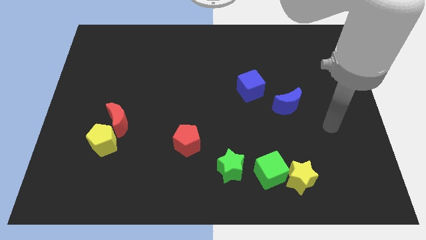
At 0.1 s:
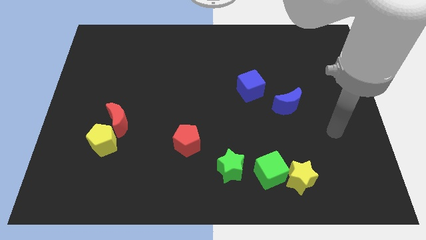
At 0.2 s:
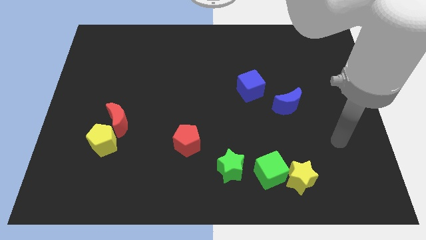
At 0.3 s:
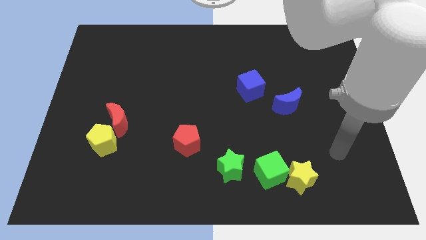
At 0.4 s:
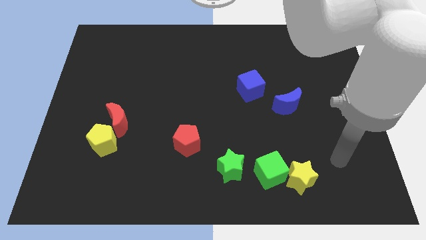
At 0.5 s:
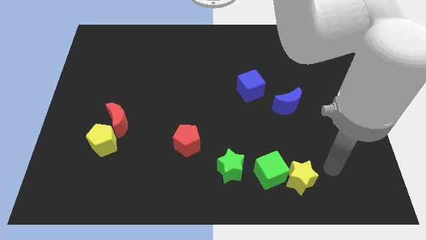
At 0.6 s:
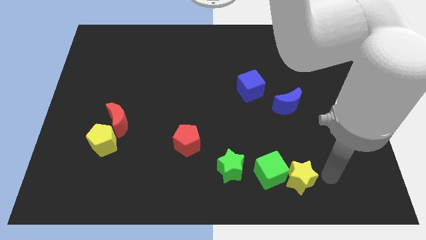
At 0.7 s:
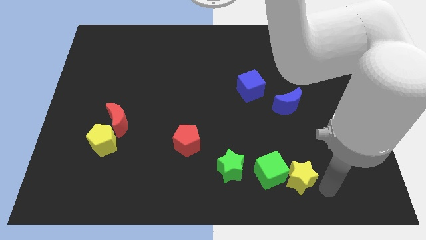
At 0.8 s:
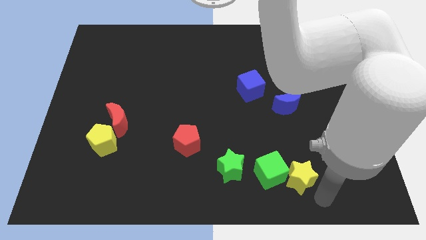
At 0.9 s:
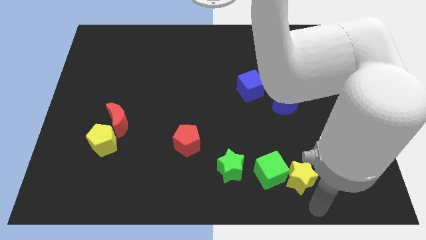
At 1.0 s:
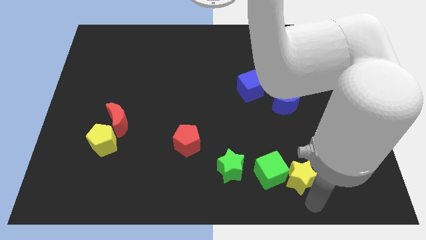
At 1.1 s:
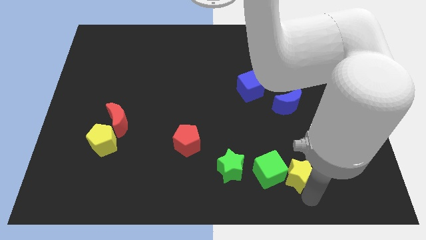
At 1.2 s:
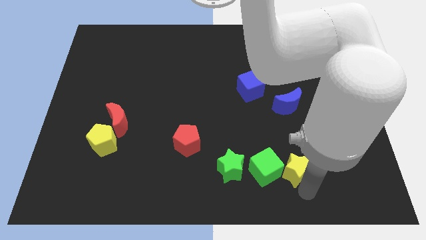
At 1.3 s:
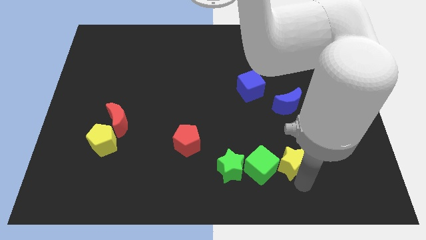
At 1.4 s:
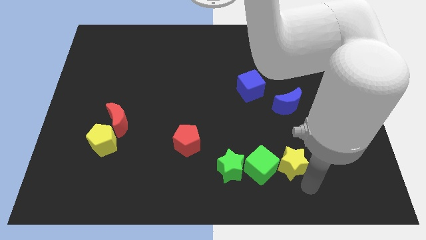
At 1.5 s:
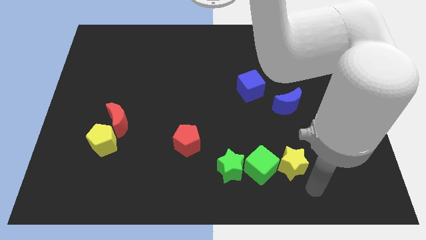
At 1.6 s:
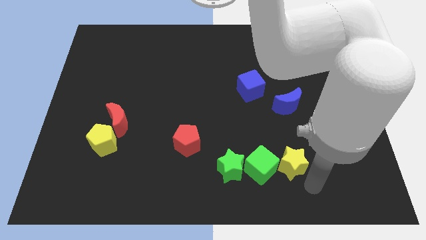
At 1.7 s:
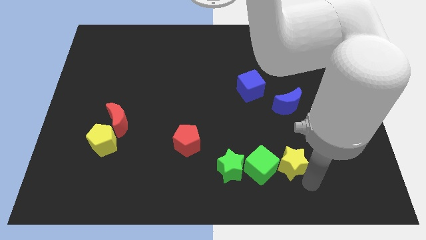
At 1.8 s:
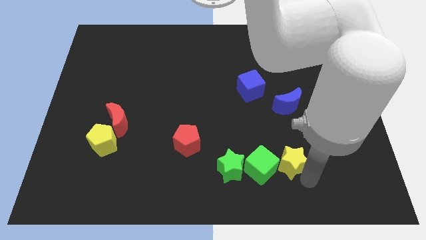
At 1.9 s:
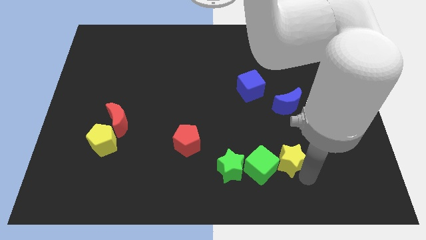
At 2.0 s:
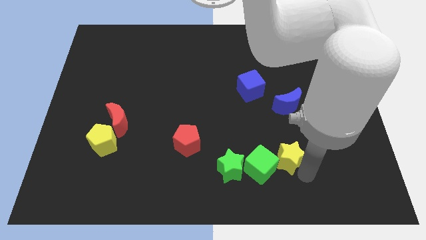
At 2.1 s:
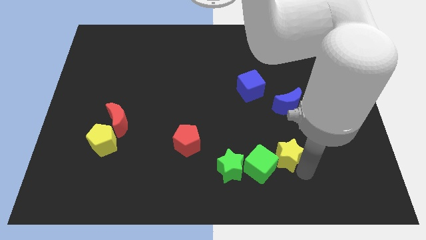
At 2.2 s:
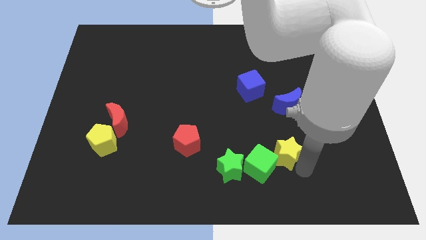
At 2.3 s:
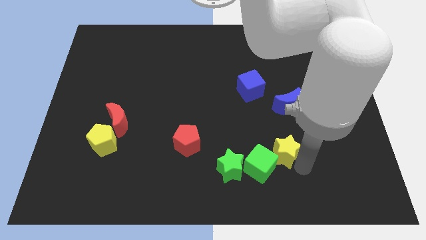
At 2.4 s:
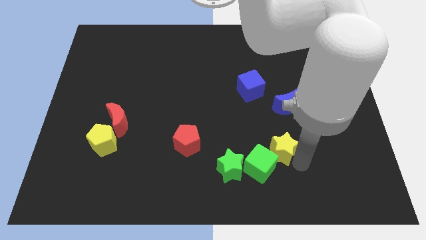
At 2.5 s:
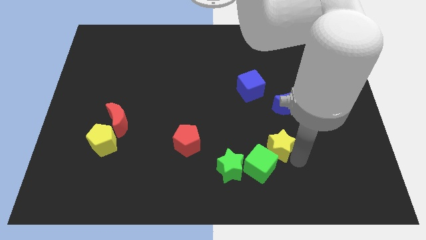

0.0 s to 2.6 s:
slightly push the yellow star diagonally up and to the left

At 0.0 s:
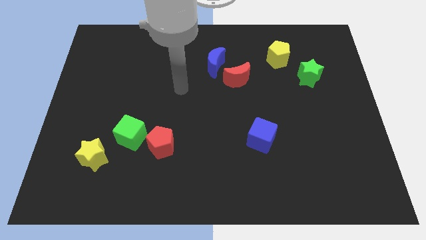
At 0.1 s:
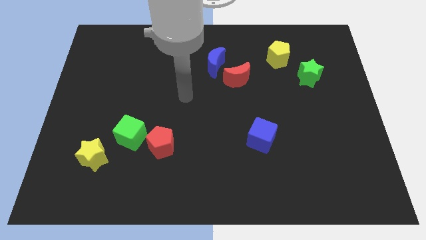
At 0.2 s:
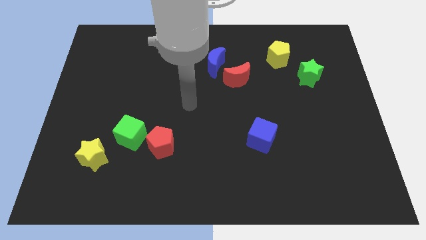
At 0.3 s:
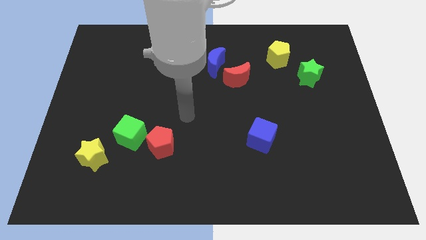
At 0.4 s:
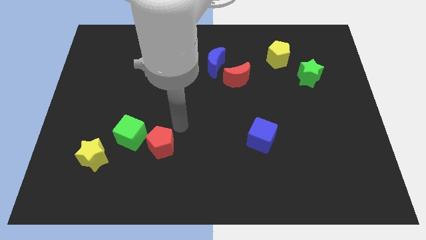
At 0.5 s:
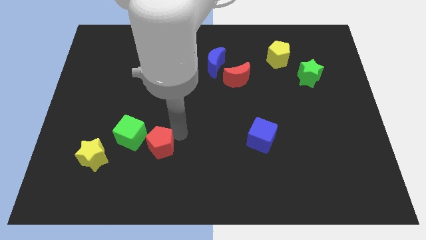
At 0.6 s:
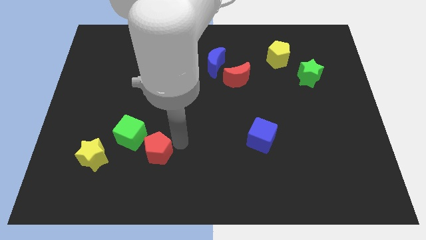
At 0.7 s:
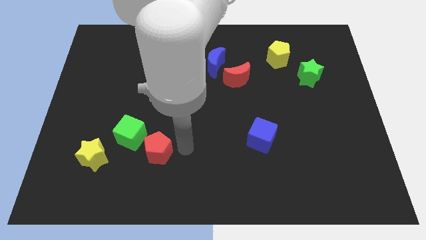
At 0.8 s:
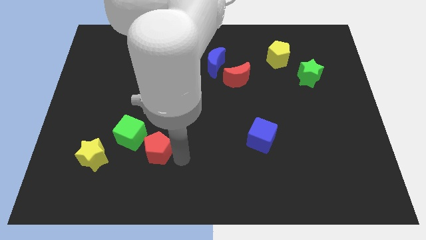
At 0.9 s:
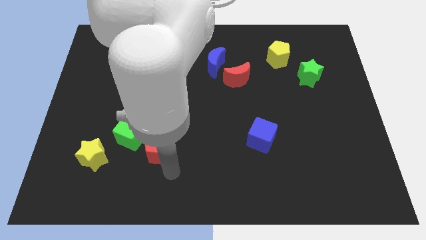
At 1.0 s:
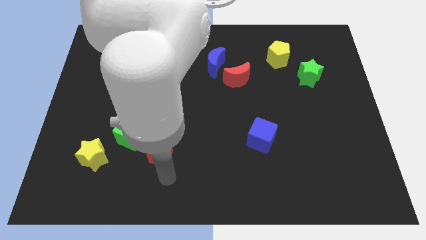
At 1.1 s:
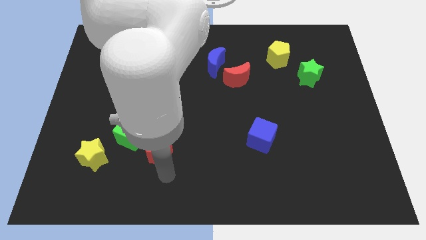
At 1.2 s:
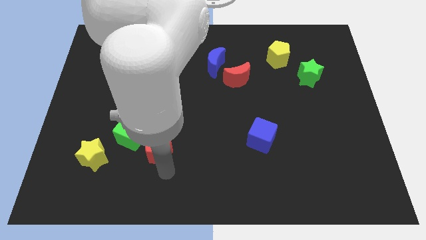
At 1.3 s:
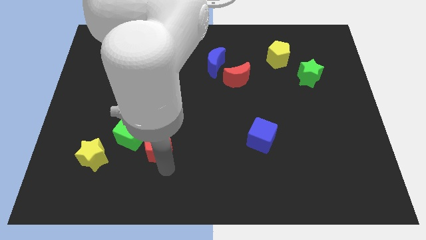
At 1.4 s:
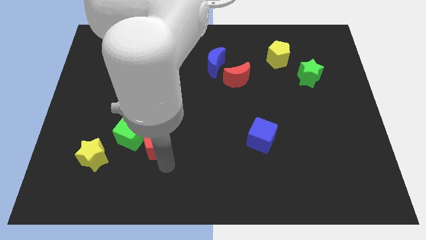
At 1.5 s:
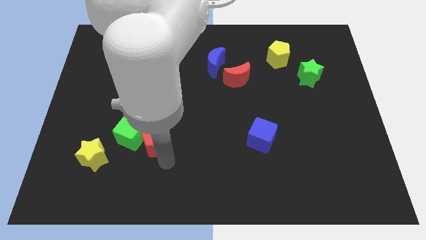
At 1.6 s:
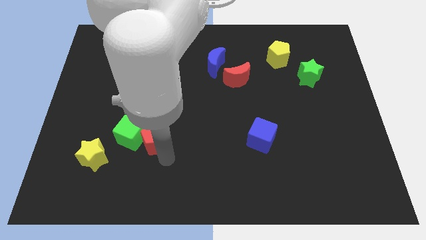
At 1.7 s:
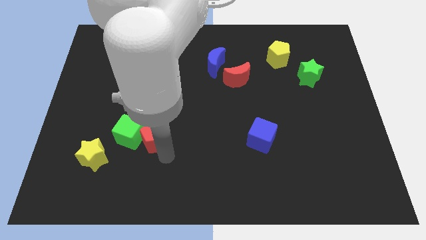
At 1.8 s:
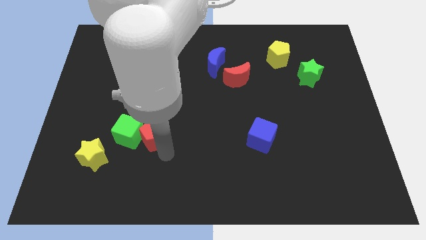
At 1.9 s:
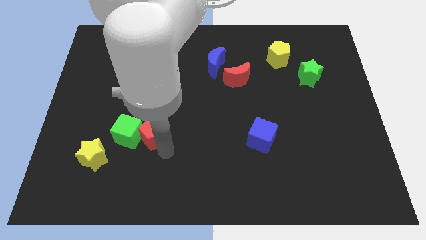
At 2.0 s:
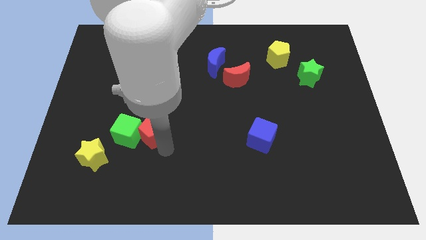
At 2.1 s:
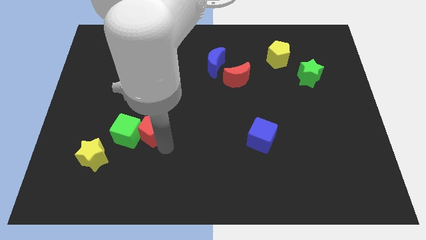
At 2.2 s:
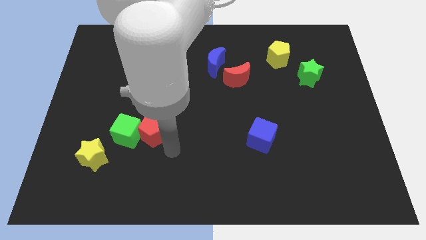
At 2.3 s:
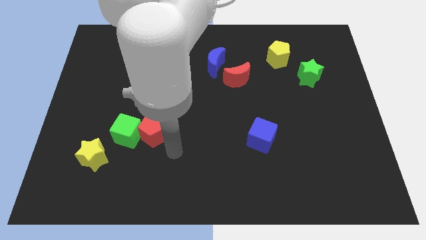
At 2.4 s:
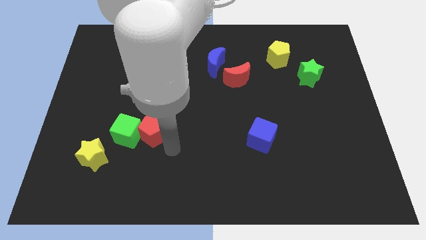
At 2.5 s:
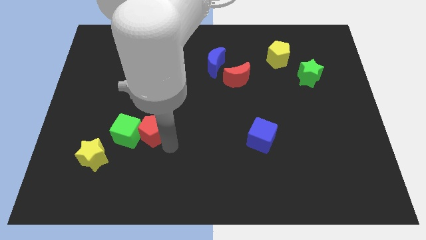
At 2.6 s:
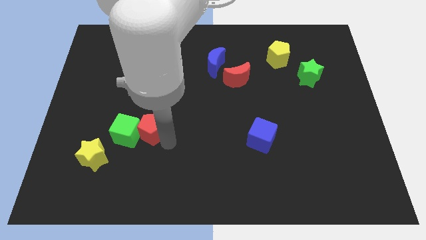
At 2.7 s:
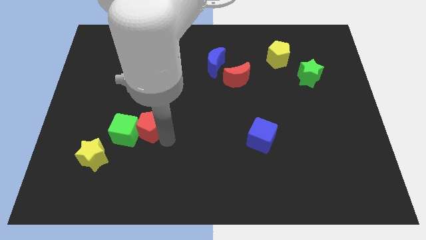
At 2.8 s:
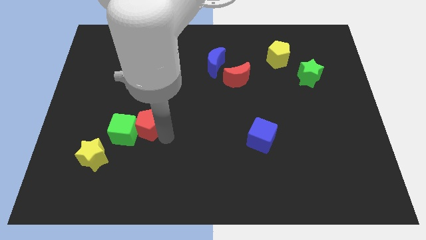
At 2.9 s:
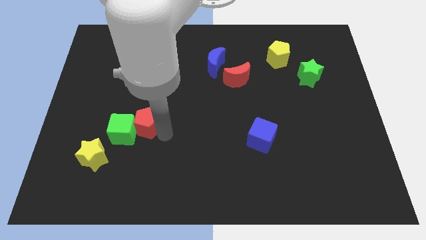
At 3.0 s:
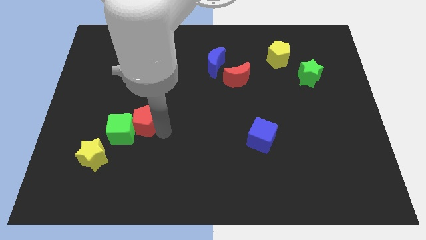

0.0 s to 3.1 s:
move the red pentagon slightly up and to the left

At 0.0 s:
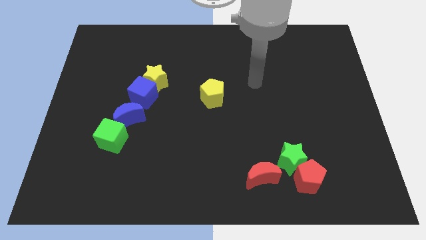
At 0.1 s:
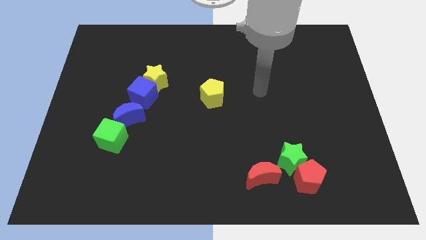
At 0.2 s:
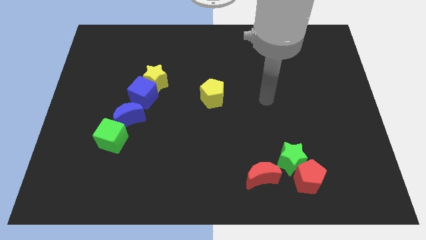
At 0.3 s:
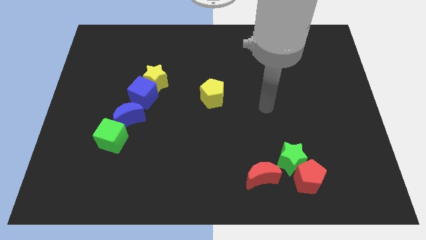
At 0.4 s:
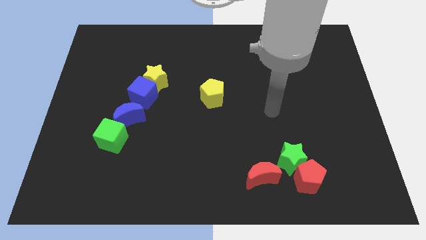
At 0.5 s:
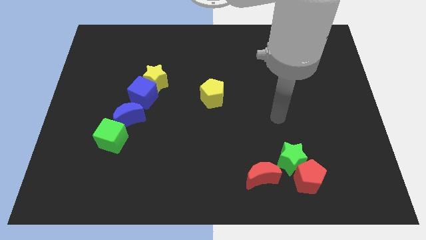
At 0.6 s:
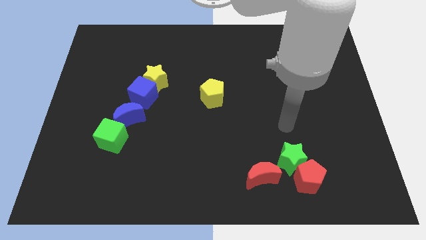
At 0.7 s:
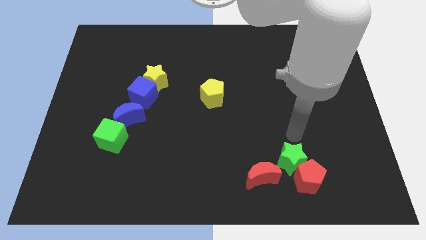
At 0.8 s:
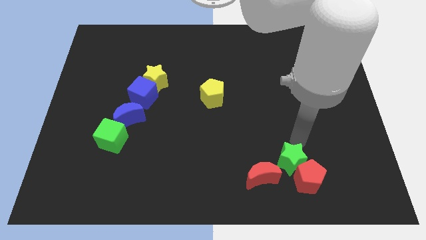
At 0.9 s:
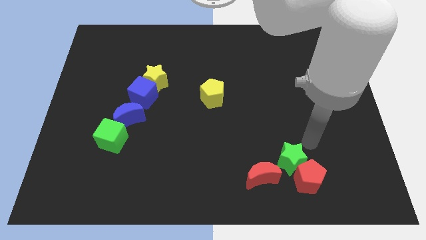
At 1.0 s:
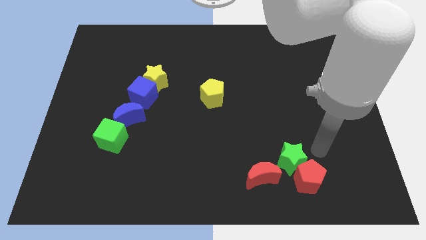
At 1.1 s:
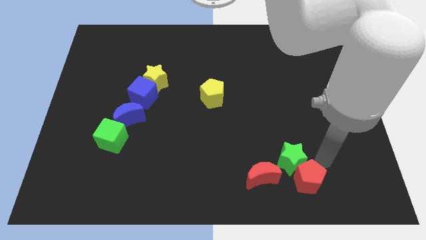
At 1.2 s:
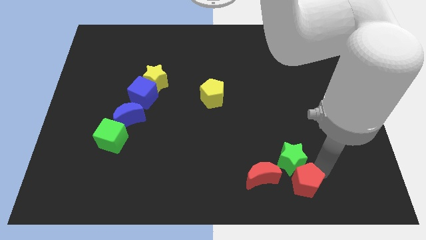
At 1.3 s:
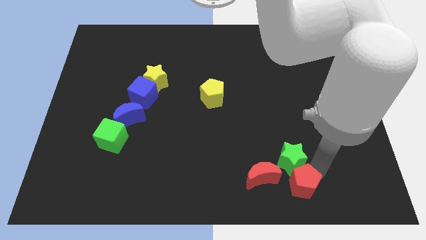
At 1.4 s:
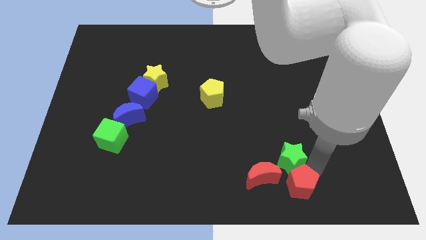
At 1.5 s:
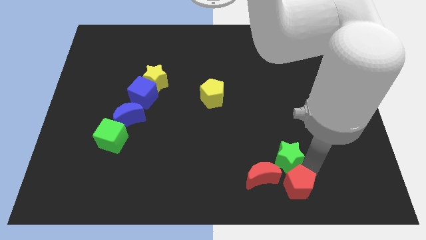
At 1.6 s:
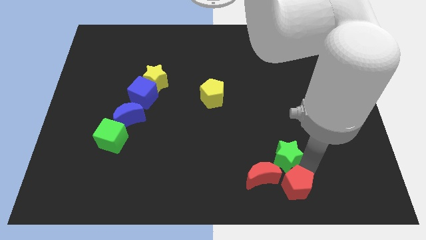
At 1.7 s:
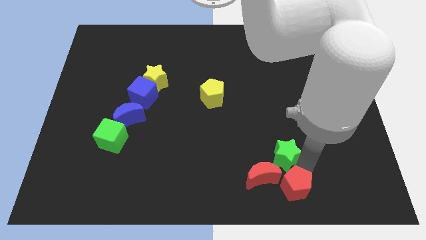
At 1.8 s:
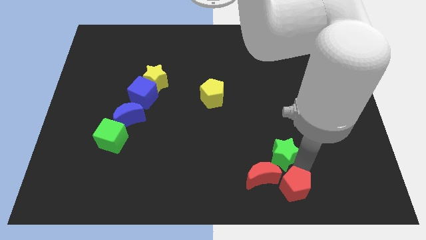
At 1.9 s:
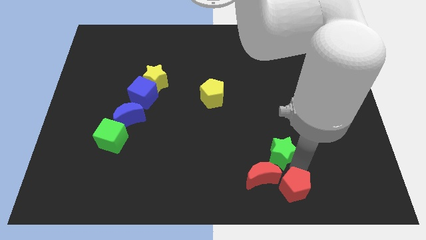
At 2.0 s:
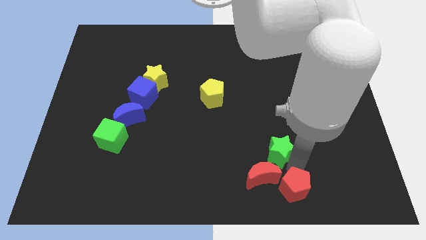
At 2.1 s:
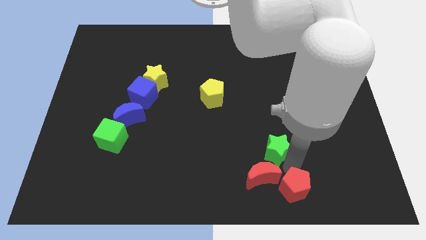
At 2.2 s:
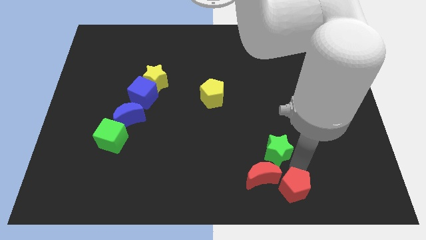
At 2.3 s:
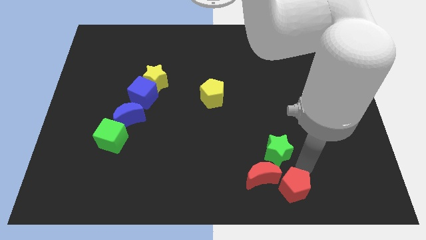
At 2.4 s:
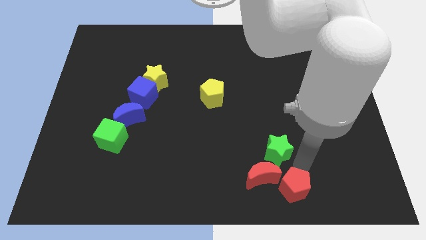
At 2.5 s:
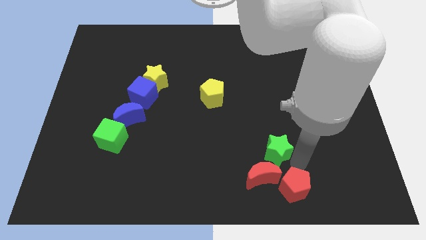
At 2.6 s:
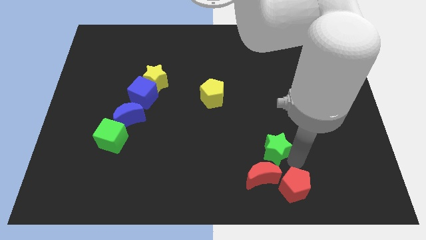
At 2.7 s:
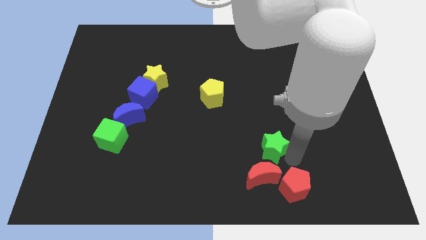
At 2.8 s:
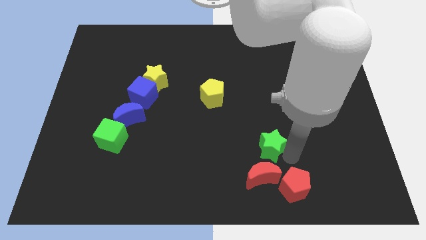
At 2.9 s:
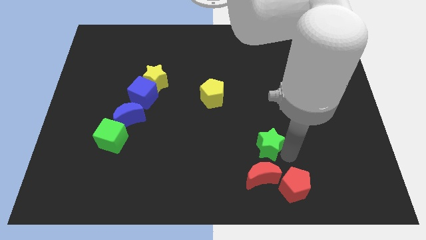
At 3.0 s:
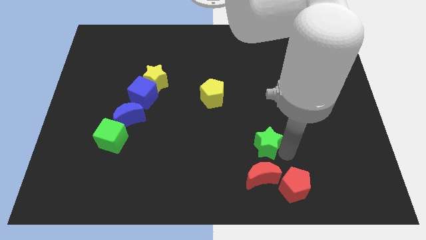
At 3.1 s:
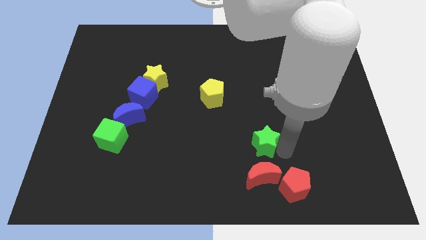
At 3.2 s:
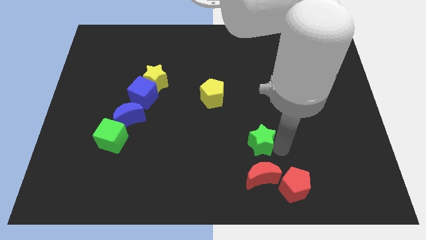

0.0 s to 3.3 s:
push the green star somewhat upwards and left
